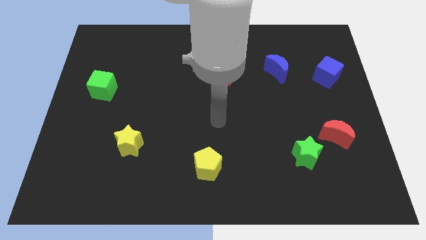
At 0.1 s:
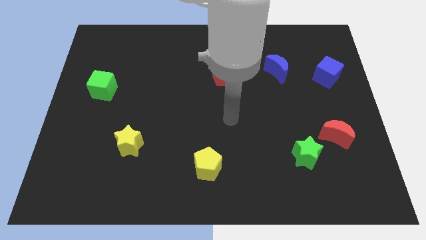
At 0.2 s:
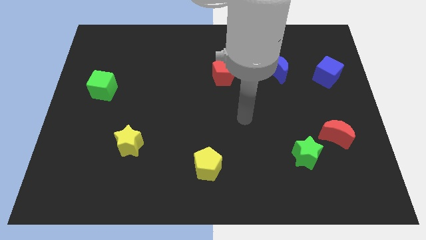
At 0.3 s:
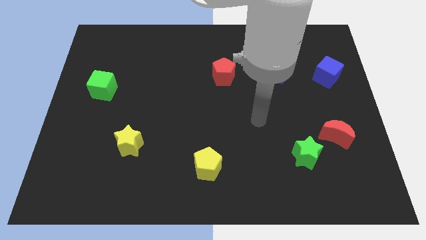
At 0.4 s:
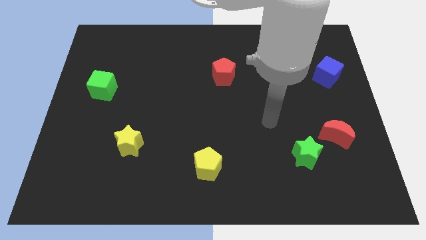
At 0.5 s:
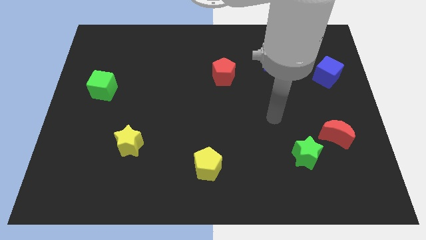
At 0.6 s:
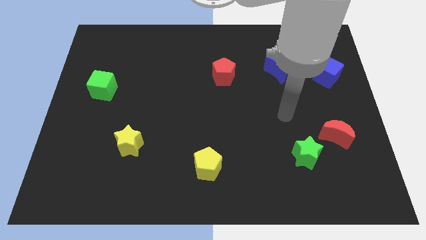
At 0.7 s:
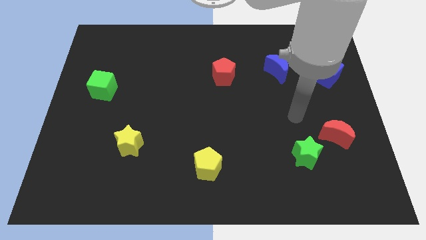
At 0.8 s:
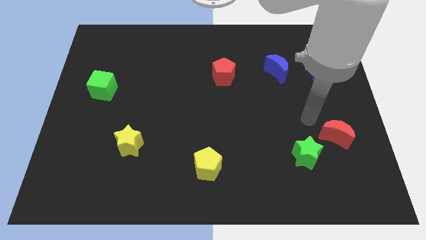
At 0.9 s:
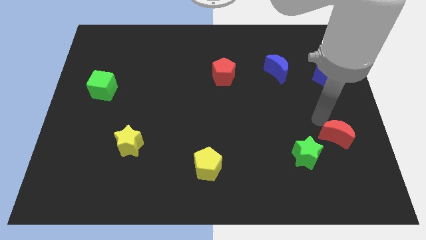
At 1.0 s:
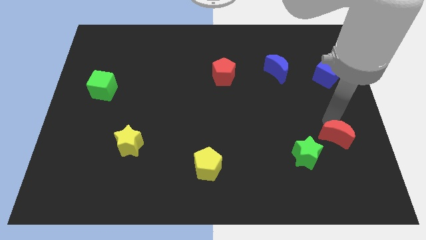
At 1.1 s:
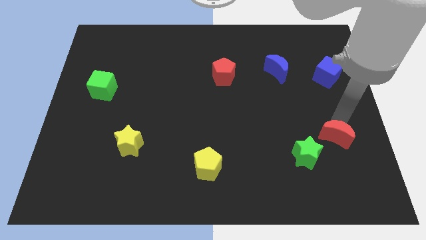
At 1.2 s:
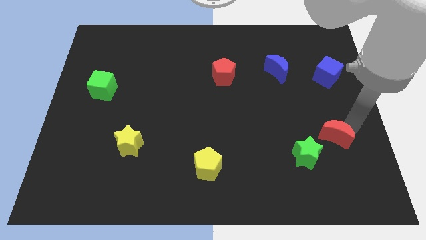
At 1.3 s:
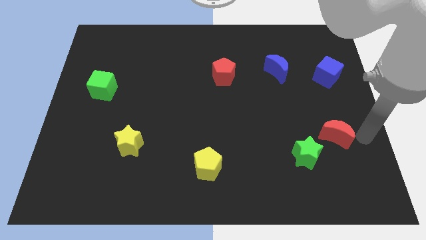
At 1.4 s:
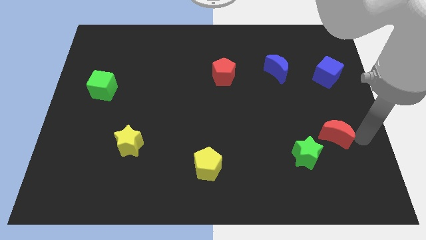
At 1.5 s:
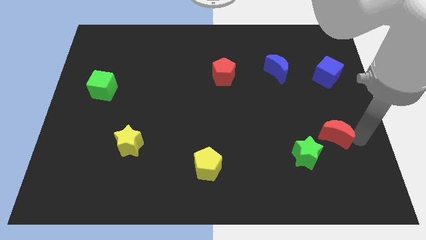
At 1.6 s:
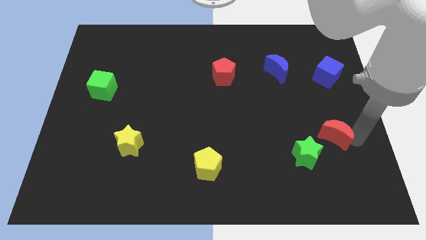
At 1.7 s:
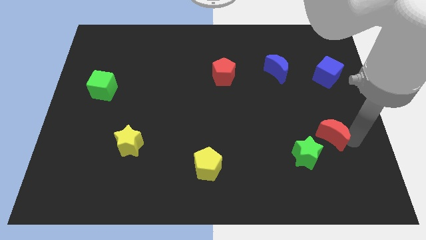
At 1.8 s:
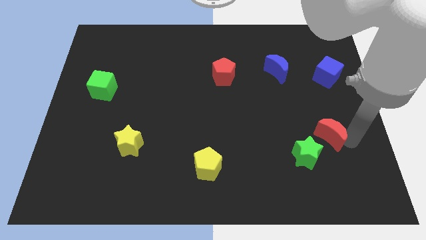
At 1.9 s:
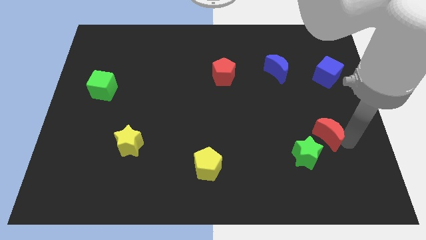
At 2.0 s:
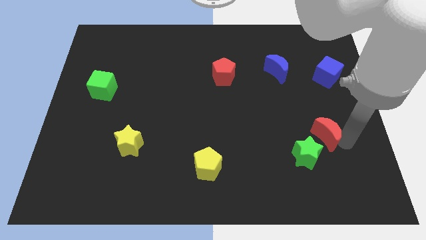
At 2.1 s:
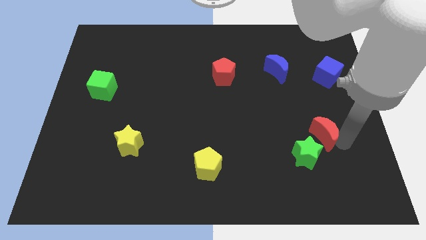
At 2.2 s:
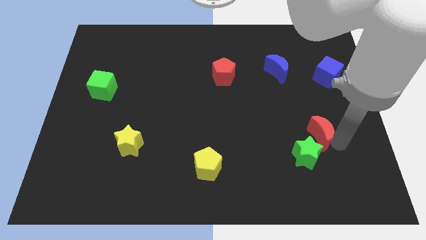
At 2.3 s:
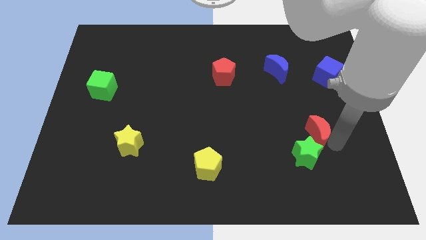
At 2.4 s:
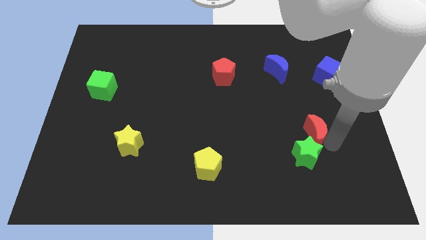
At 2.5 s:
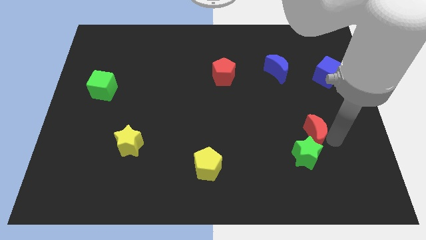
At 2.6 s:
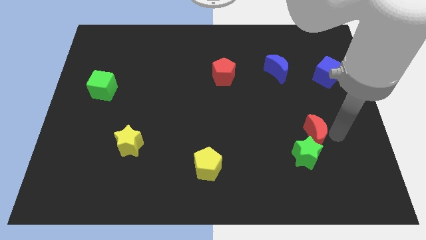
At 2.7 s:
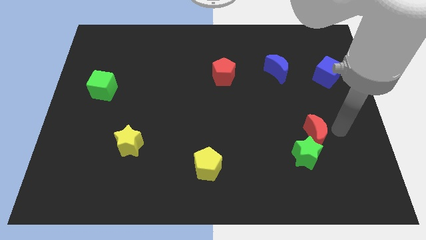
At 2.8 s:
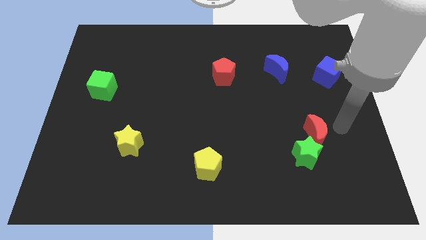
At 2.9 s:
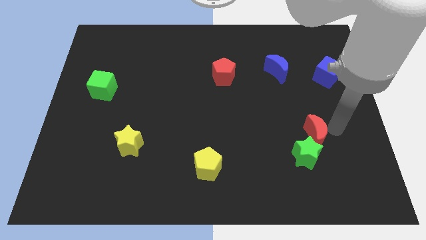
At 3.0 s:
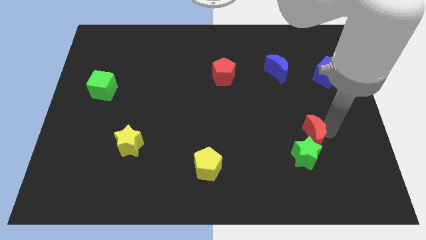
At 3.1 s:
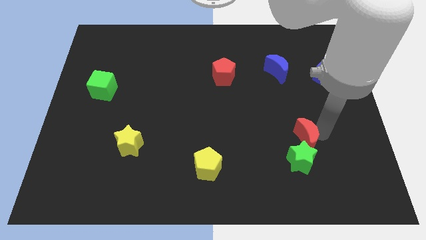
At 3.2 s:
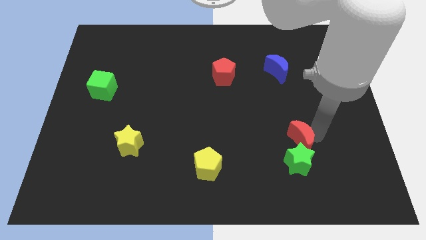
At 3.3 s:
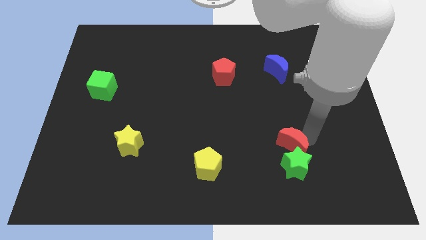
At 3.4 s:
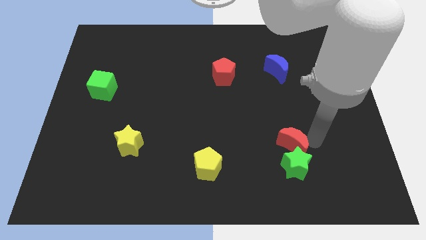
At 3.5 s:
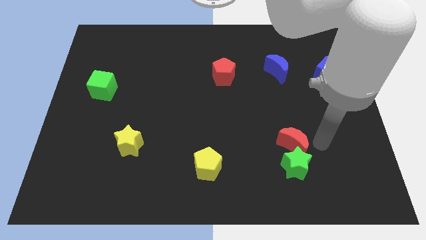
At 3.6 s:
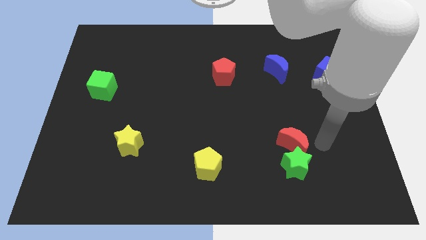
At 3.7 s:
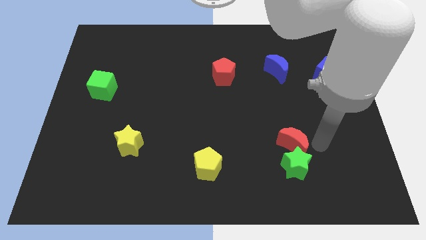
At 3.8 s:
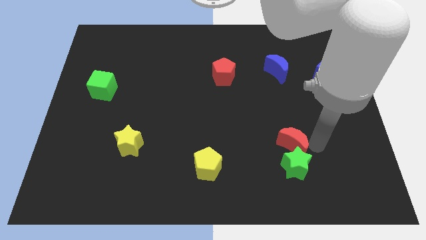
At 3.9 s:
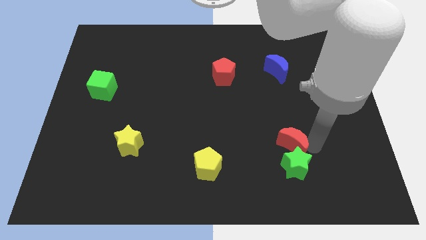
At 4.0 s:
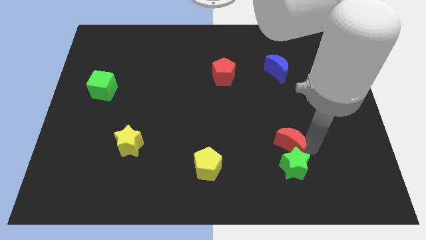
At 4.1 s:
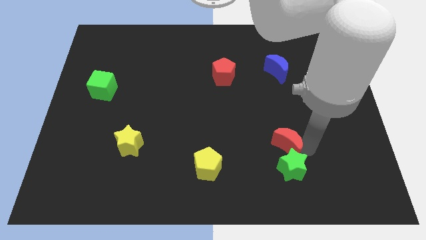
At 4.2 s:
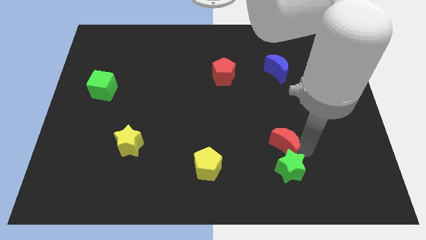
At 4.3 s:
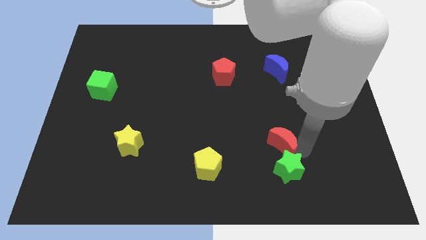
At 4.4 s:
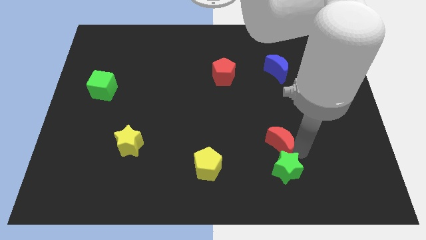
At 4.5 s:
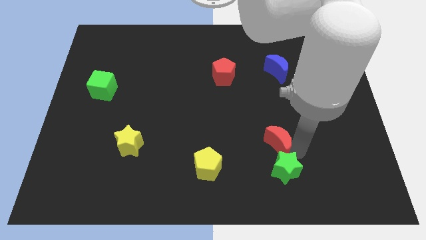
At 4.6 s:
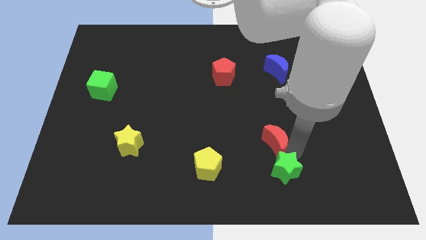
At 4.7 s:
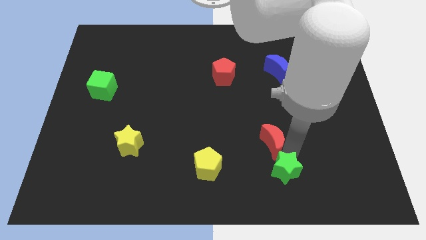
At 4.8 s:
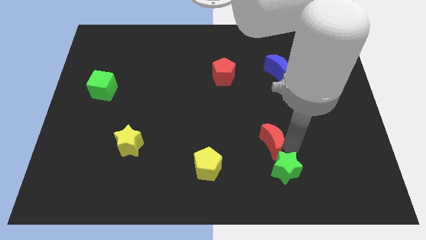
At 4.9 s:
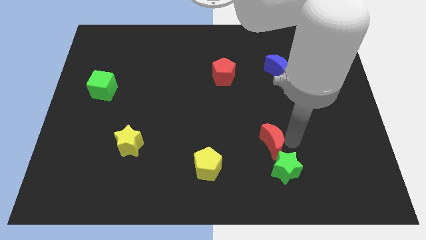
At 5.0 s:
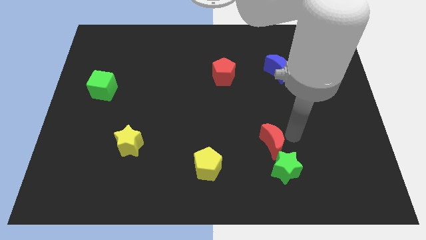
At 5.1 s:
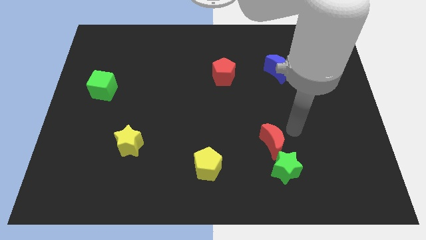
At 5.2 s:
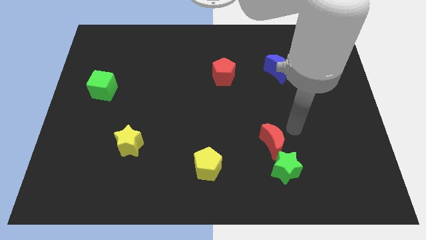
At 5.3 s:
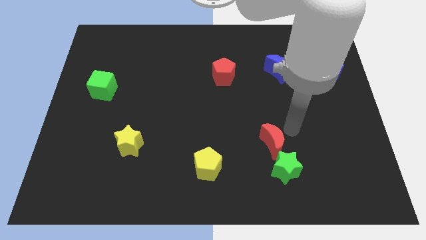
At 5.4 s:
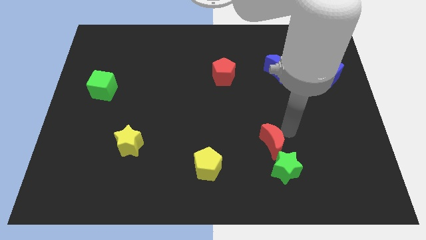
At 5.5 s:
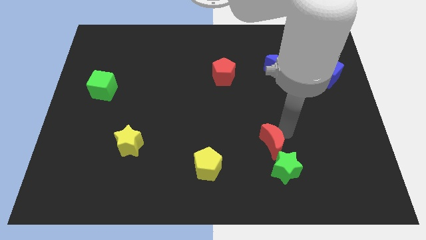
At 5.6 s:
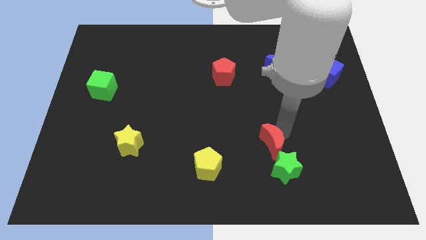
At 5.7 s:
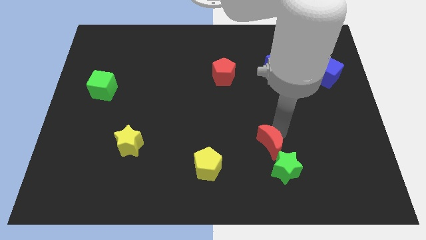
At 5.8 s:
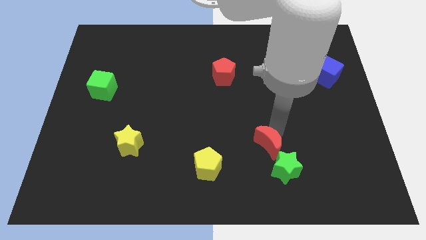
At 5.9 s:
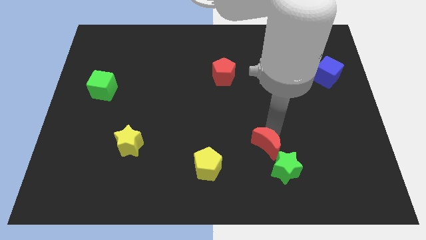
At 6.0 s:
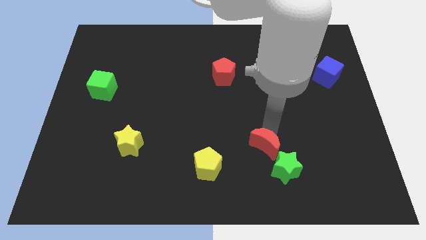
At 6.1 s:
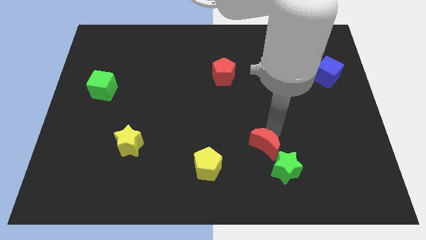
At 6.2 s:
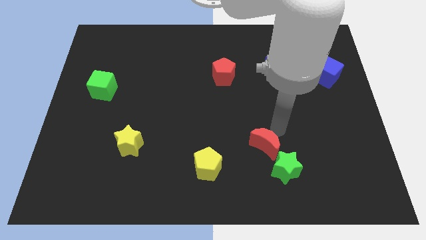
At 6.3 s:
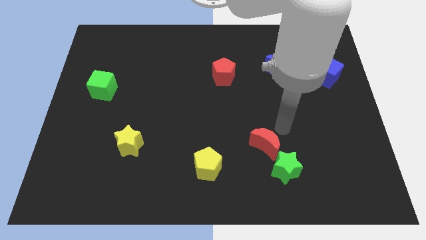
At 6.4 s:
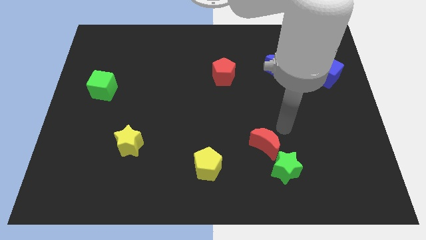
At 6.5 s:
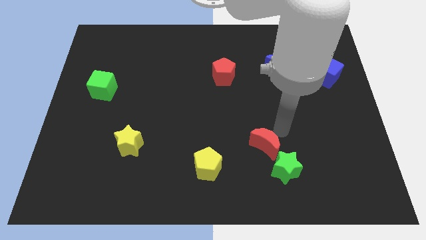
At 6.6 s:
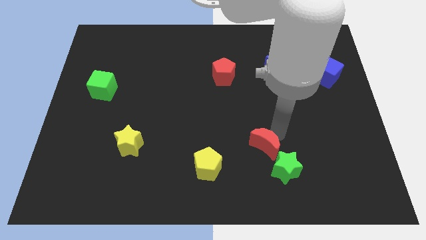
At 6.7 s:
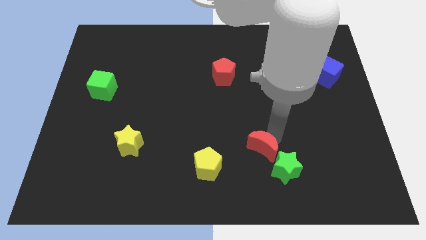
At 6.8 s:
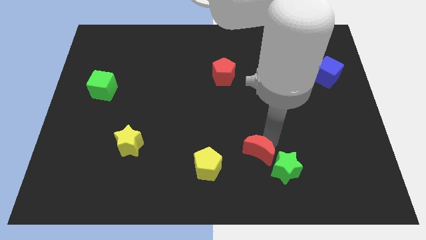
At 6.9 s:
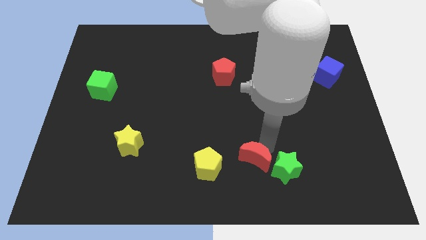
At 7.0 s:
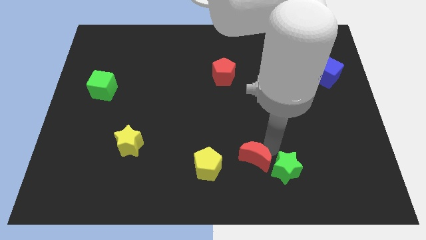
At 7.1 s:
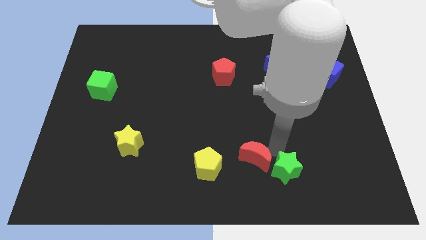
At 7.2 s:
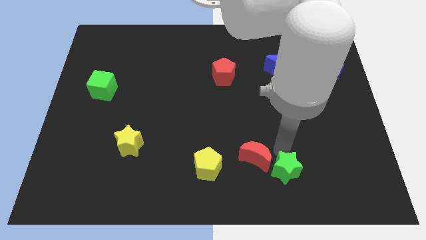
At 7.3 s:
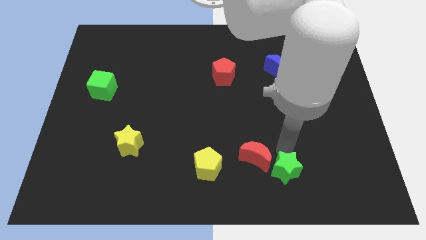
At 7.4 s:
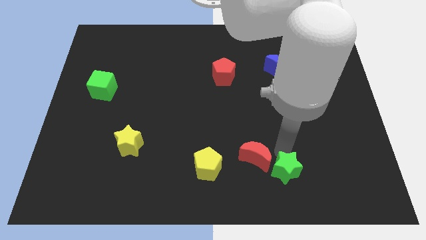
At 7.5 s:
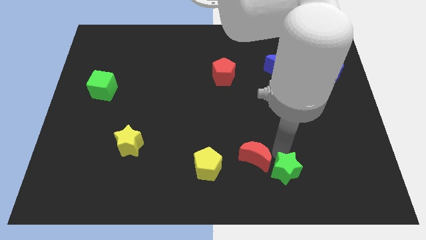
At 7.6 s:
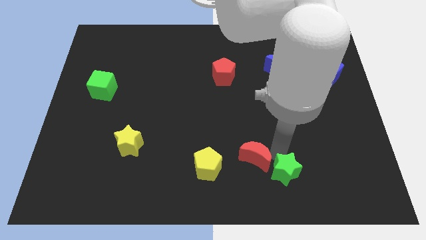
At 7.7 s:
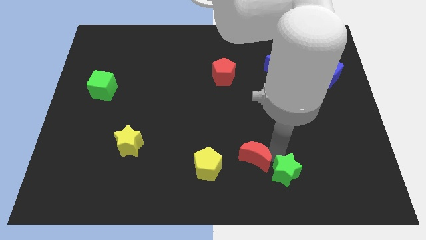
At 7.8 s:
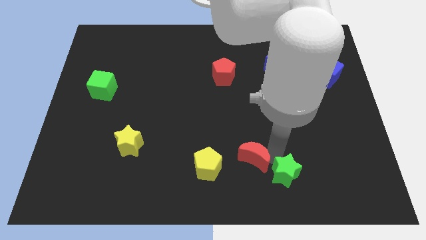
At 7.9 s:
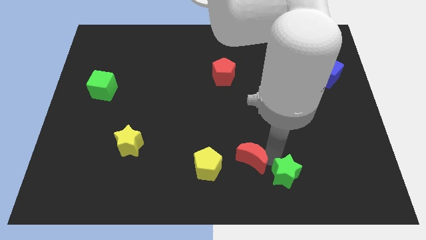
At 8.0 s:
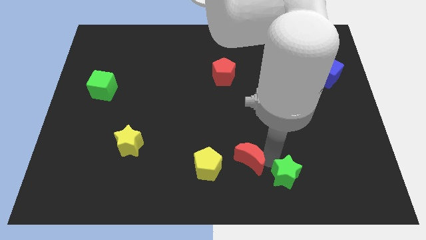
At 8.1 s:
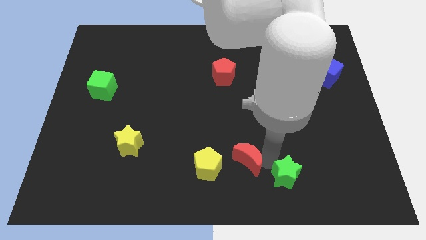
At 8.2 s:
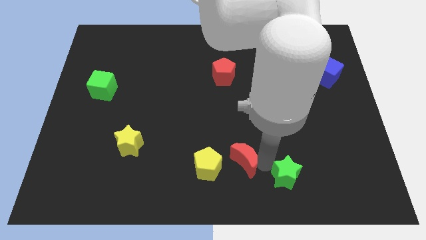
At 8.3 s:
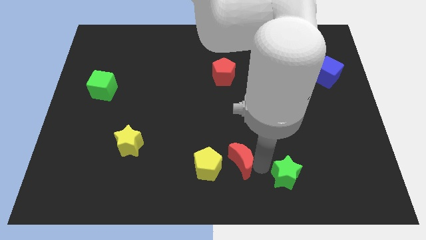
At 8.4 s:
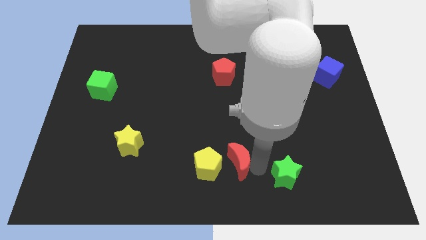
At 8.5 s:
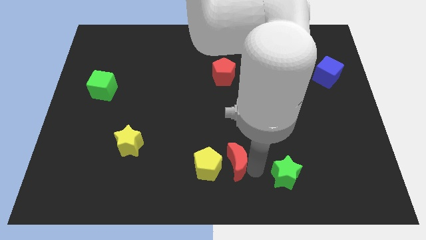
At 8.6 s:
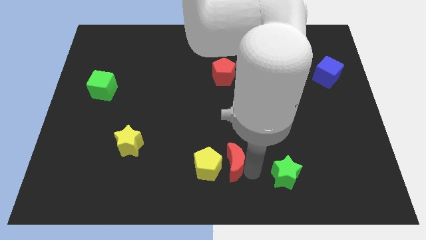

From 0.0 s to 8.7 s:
put the red moon close to the yellow pentagon
